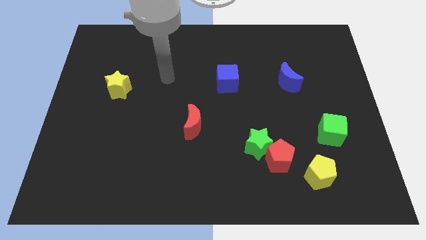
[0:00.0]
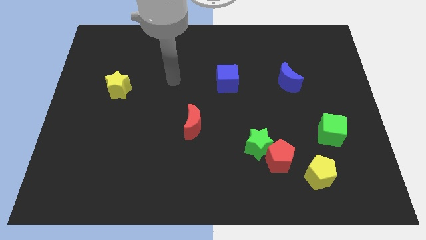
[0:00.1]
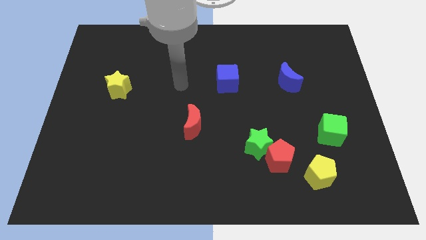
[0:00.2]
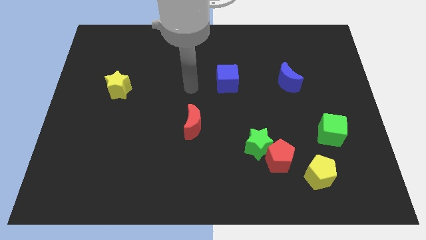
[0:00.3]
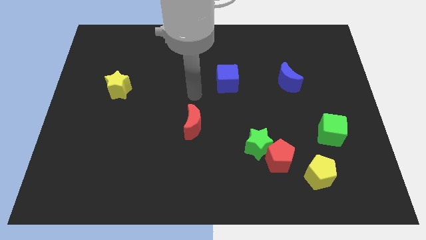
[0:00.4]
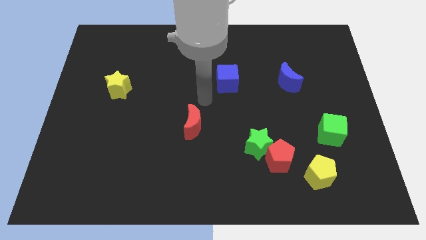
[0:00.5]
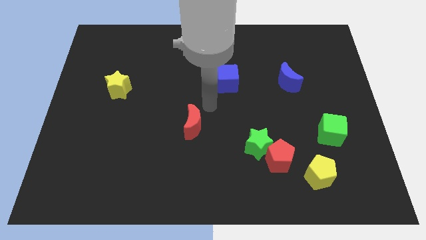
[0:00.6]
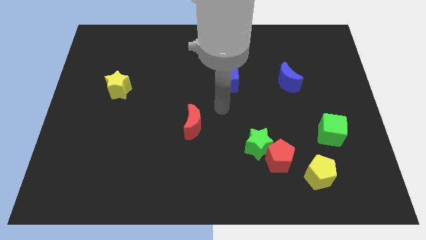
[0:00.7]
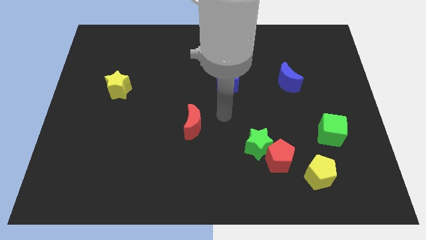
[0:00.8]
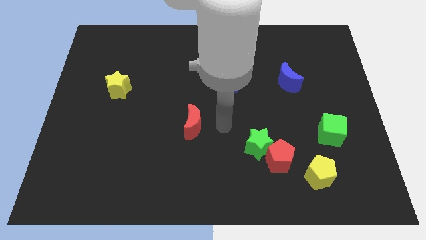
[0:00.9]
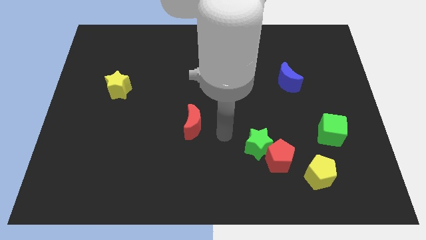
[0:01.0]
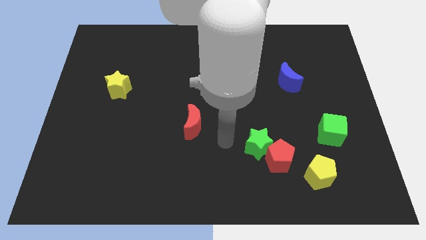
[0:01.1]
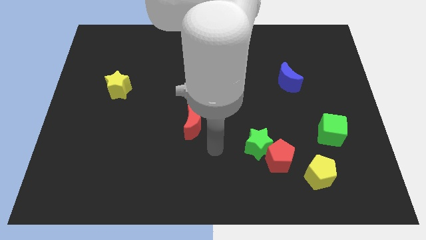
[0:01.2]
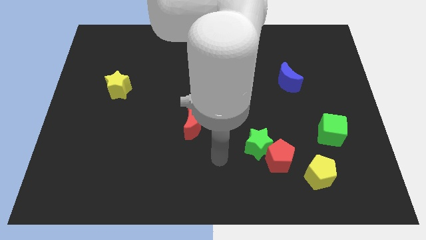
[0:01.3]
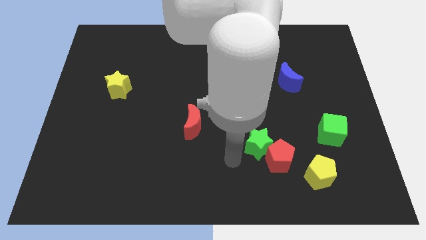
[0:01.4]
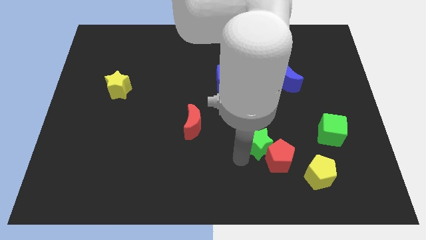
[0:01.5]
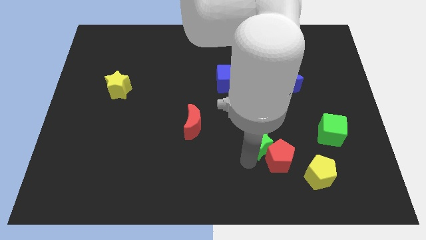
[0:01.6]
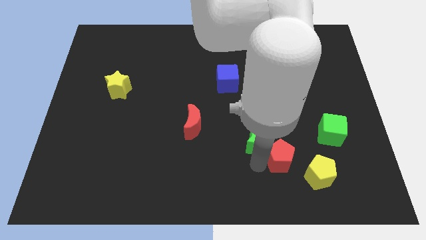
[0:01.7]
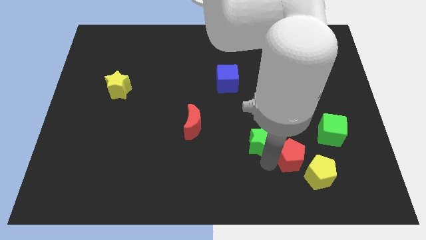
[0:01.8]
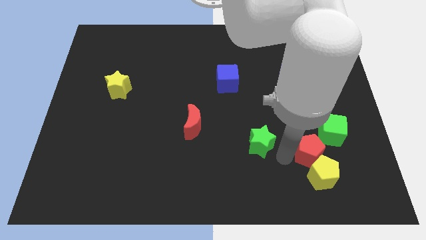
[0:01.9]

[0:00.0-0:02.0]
pull the green star apart from the red pentagon

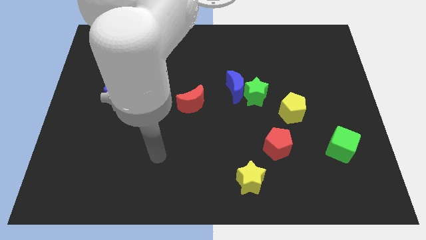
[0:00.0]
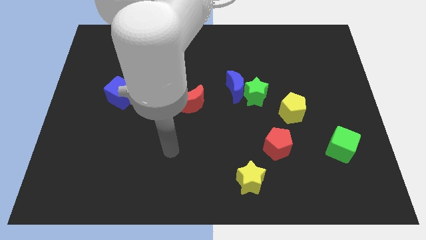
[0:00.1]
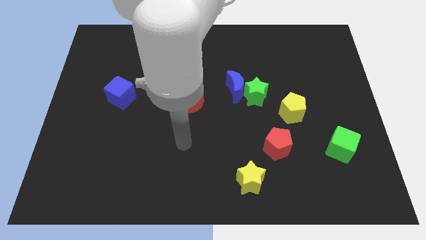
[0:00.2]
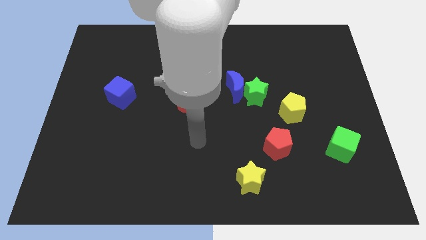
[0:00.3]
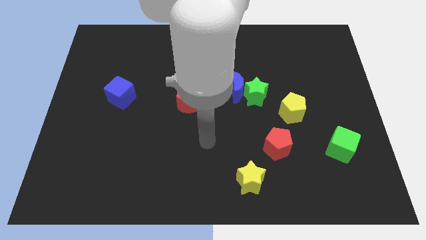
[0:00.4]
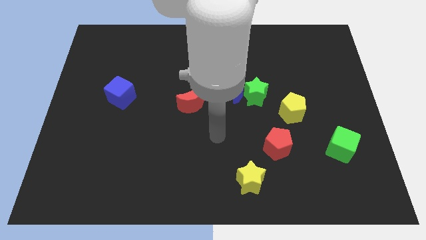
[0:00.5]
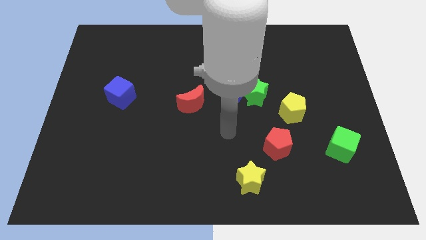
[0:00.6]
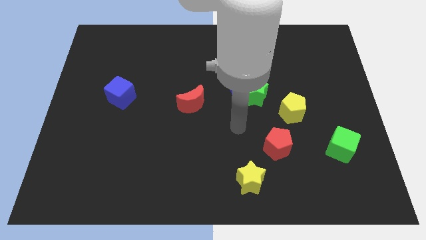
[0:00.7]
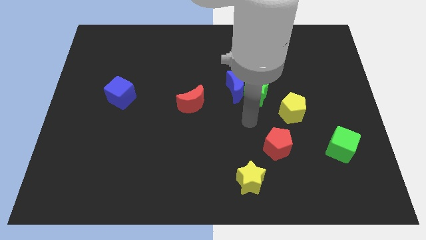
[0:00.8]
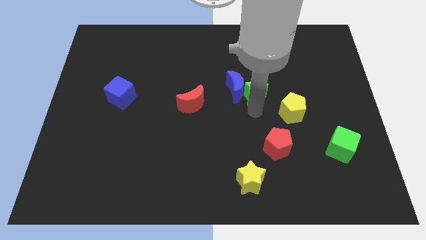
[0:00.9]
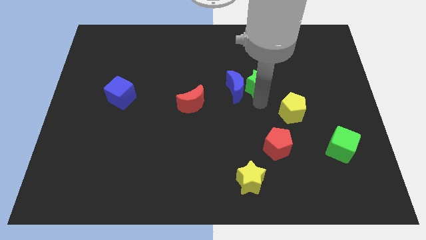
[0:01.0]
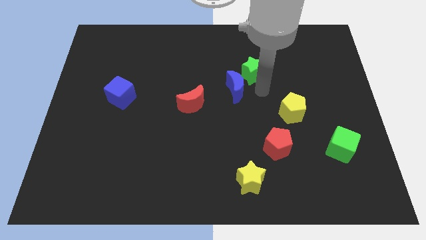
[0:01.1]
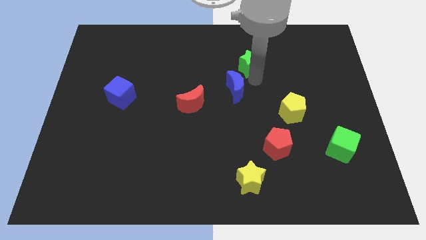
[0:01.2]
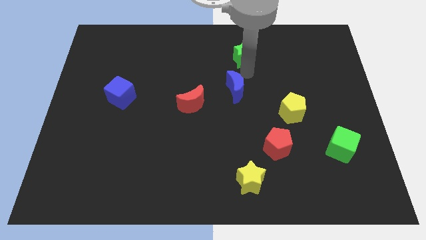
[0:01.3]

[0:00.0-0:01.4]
pull the blue moon apart from the green star

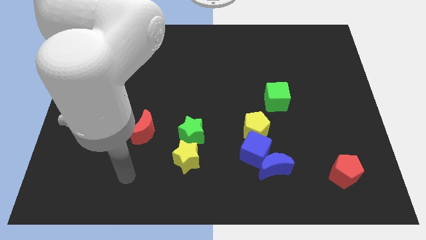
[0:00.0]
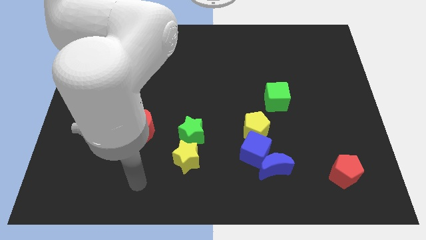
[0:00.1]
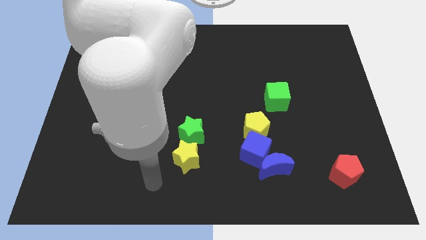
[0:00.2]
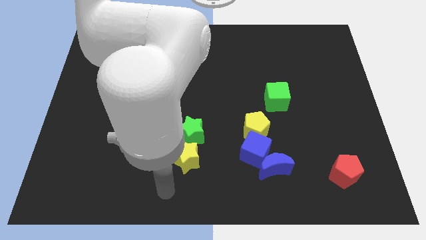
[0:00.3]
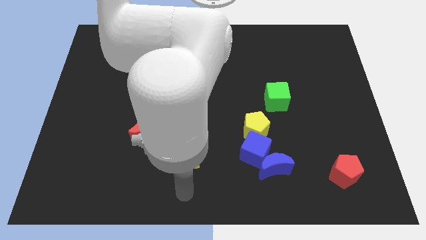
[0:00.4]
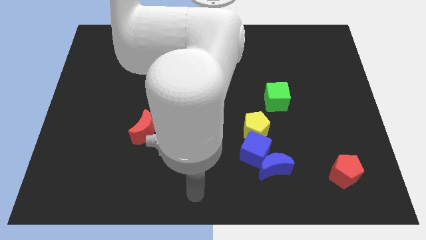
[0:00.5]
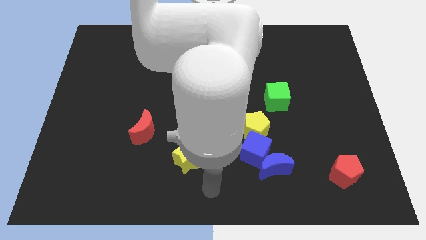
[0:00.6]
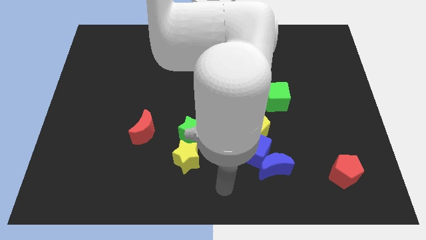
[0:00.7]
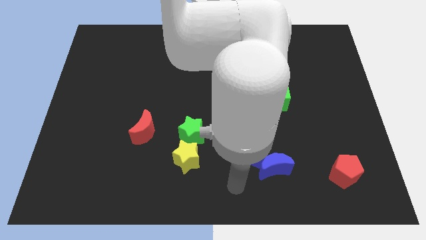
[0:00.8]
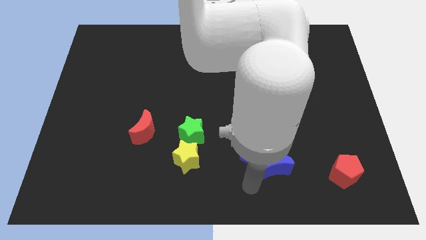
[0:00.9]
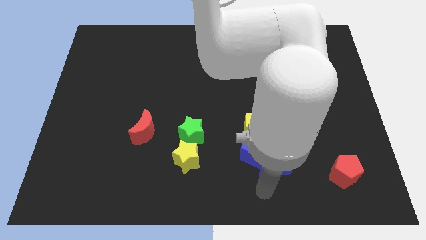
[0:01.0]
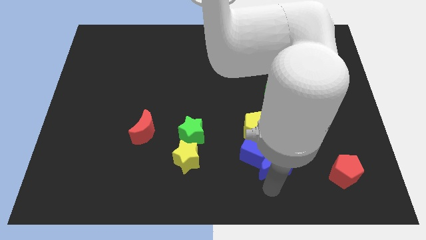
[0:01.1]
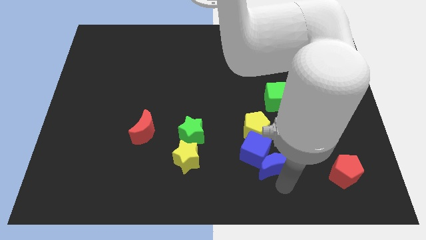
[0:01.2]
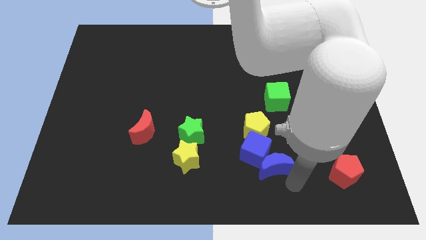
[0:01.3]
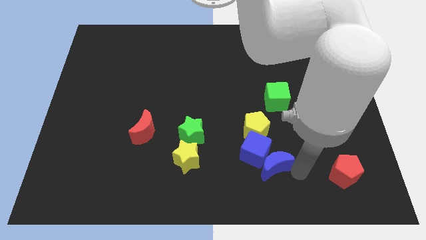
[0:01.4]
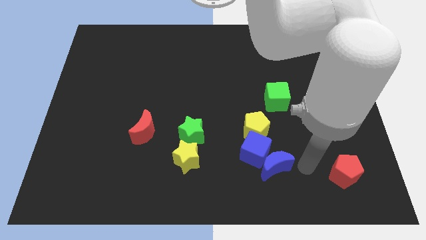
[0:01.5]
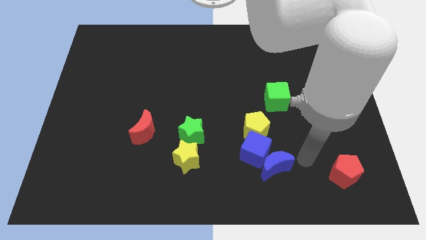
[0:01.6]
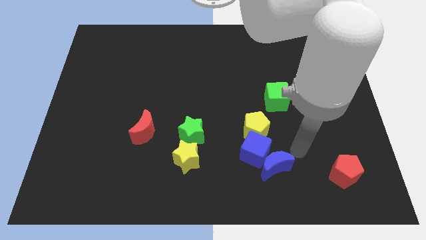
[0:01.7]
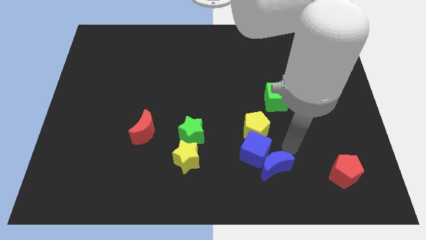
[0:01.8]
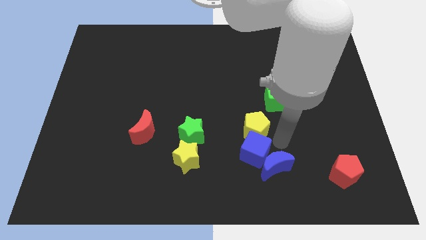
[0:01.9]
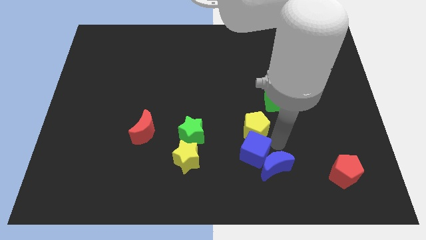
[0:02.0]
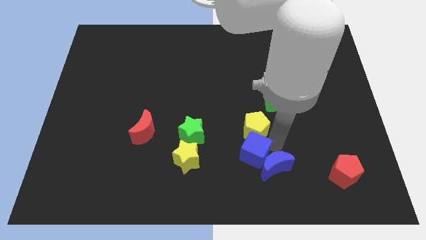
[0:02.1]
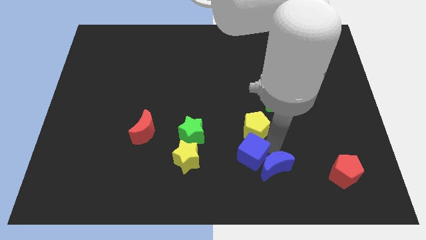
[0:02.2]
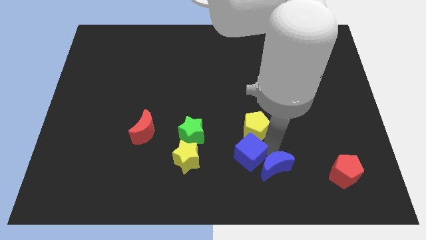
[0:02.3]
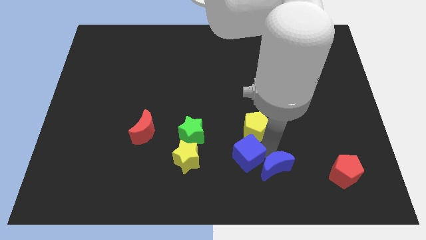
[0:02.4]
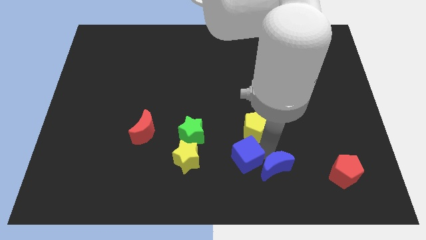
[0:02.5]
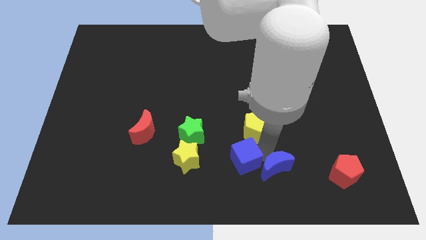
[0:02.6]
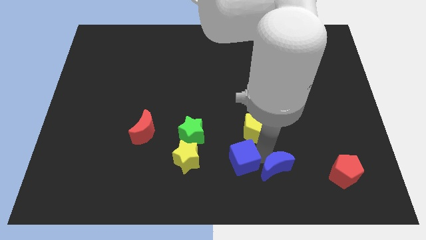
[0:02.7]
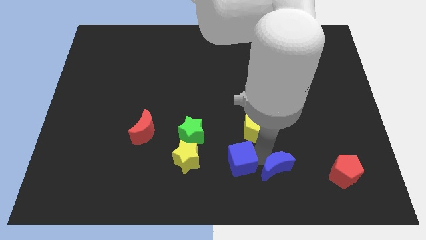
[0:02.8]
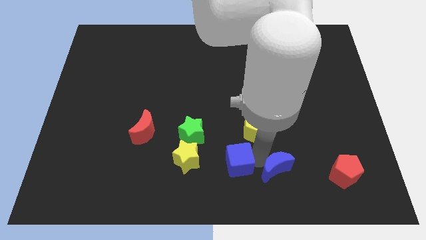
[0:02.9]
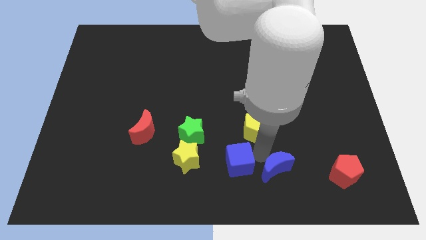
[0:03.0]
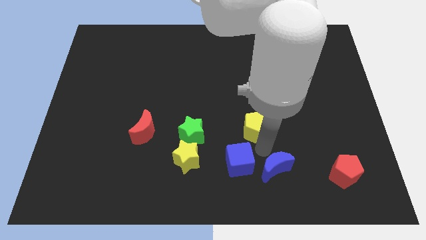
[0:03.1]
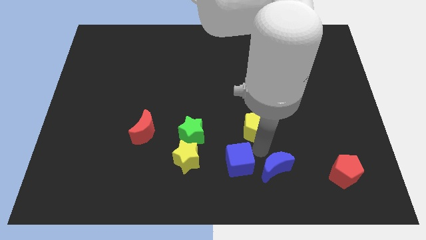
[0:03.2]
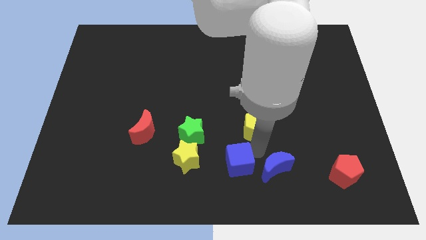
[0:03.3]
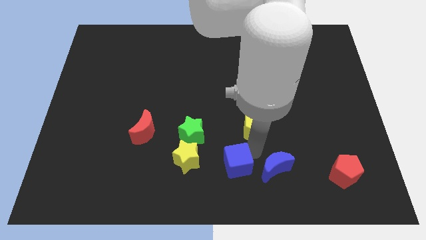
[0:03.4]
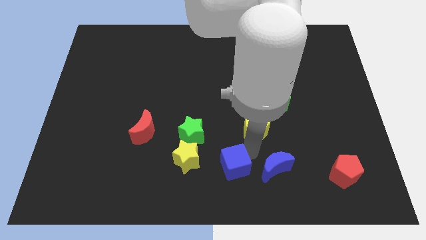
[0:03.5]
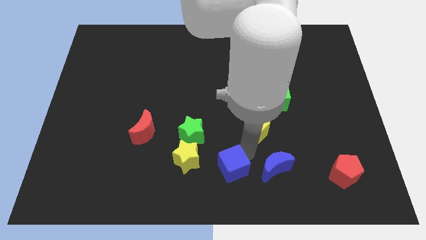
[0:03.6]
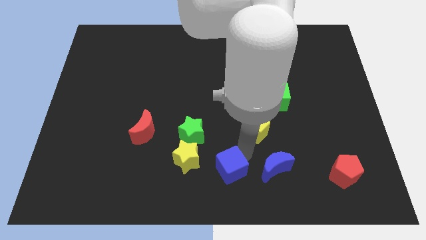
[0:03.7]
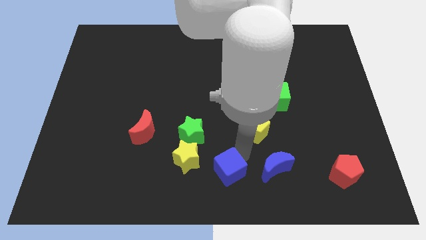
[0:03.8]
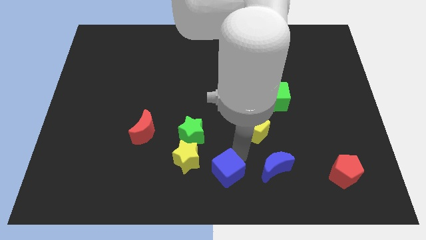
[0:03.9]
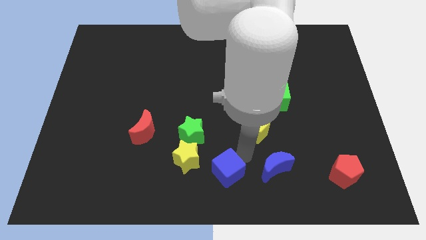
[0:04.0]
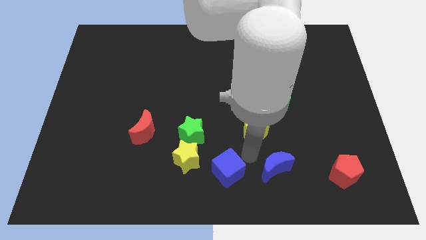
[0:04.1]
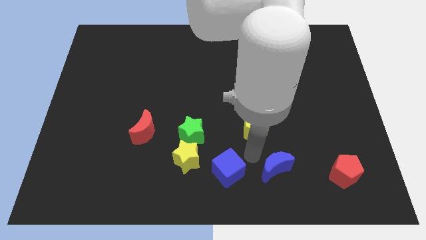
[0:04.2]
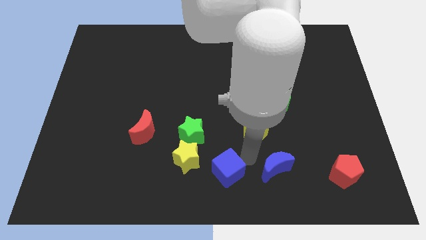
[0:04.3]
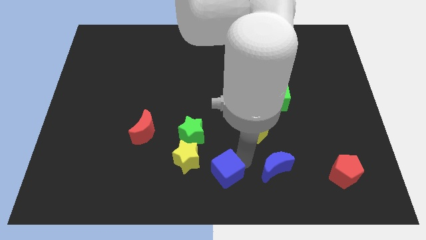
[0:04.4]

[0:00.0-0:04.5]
move the blue cube away from the blue moon and yellow pentagon

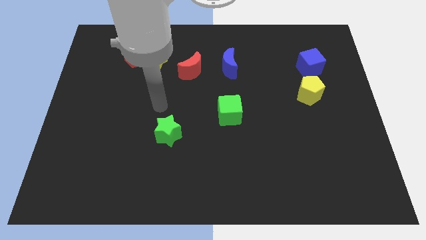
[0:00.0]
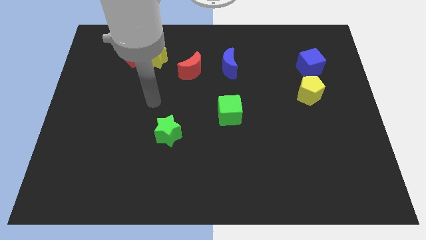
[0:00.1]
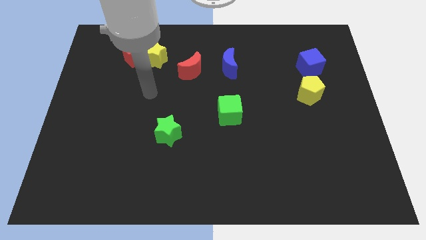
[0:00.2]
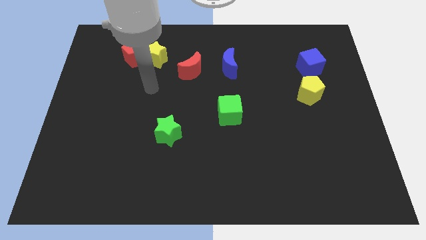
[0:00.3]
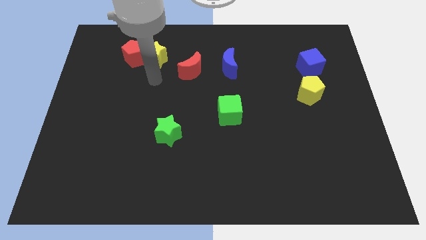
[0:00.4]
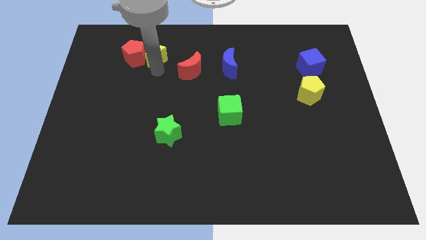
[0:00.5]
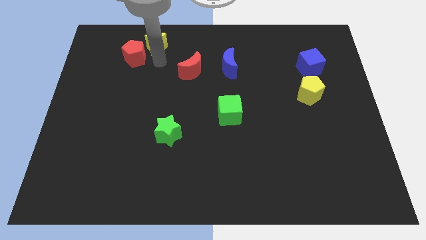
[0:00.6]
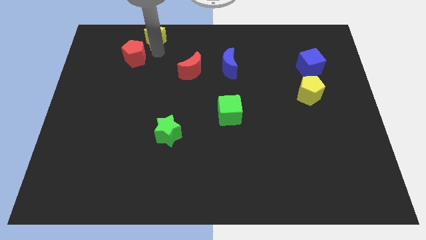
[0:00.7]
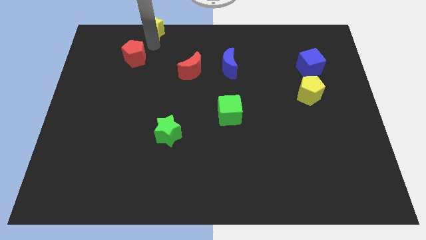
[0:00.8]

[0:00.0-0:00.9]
separate the red pentagon from the yellow star

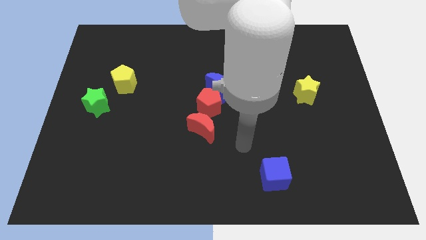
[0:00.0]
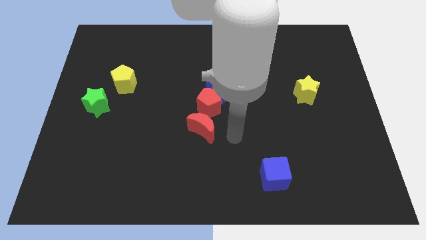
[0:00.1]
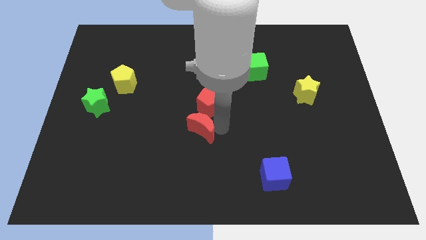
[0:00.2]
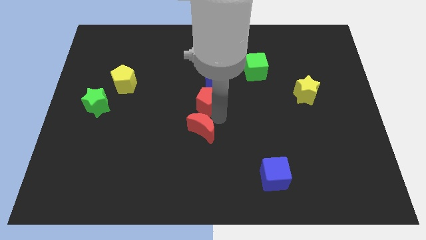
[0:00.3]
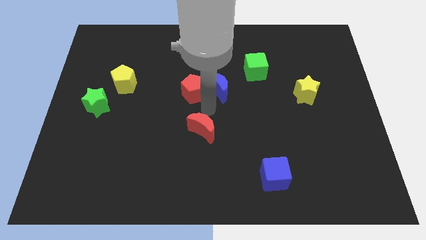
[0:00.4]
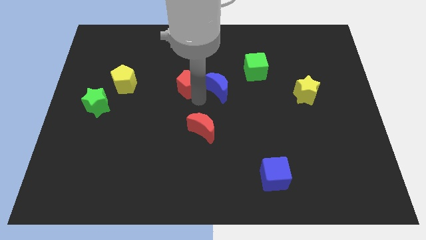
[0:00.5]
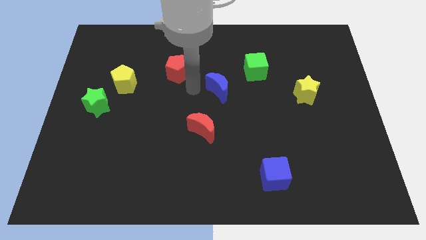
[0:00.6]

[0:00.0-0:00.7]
separate the blue moon from the red pentagon
